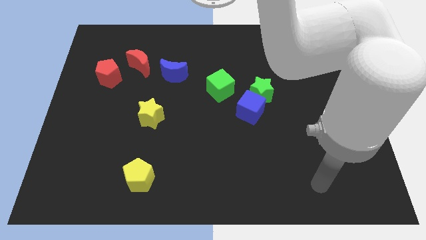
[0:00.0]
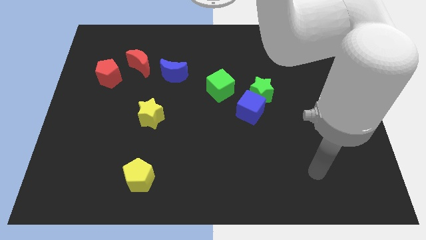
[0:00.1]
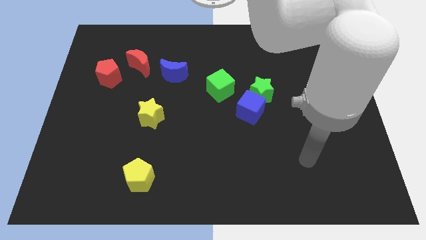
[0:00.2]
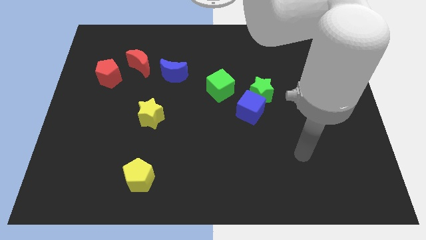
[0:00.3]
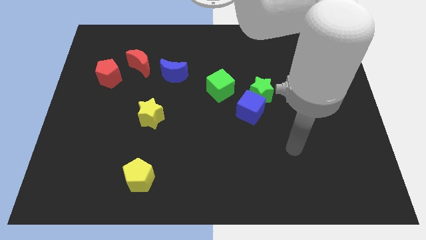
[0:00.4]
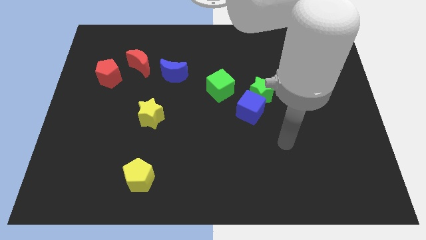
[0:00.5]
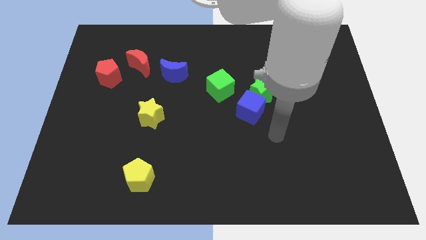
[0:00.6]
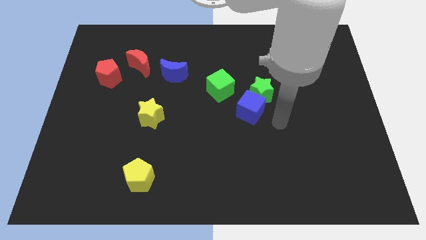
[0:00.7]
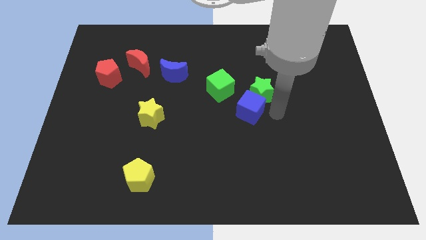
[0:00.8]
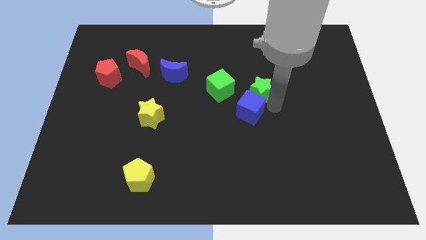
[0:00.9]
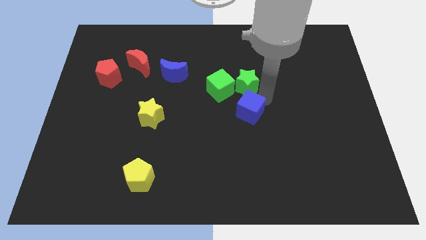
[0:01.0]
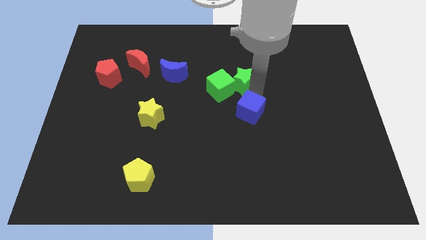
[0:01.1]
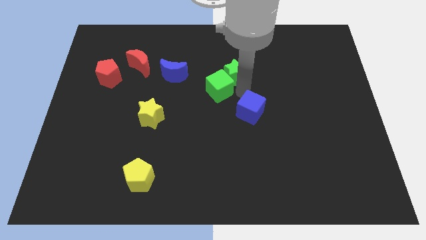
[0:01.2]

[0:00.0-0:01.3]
separate the blue cube from the green star and green cube

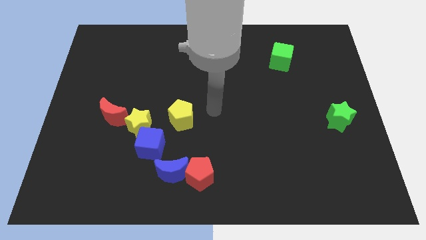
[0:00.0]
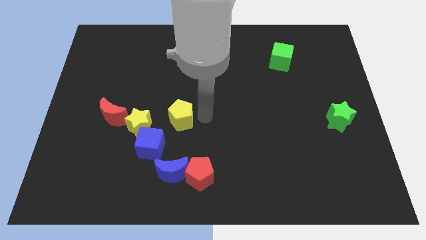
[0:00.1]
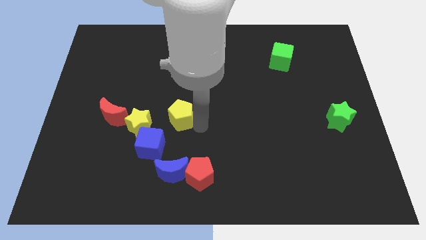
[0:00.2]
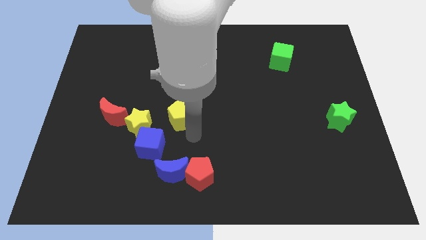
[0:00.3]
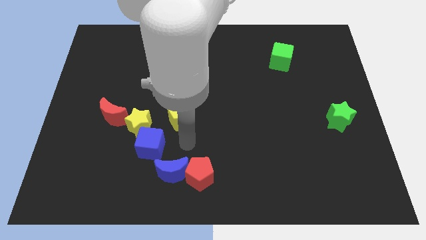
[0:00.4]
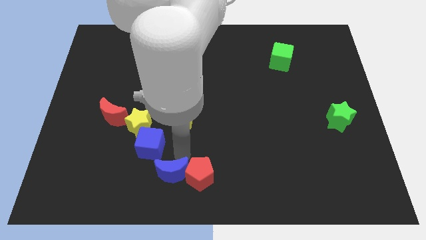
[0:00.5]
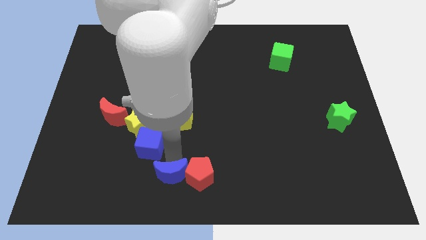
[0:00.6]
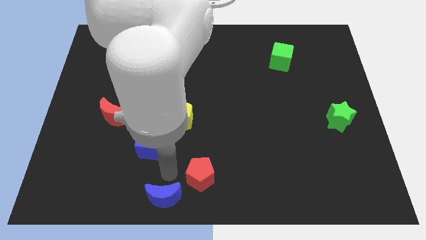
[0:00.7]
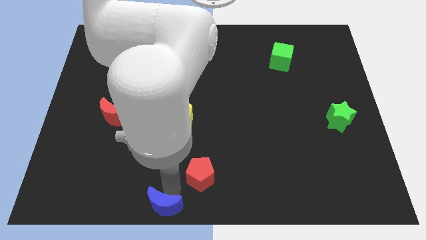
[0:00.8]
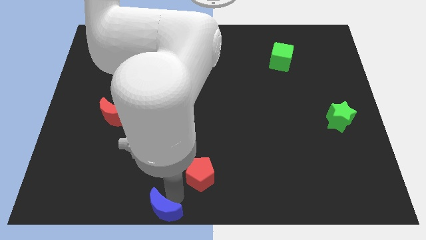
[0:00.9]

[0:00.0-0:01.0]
pull the red pentagon apart from the blue moon

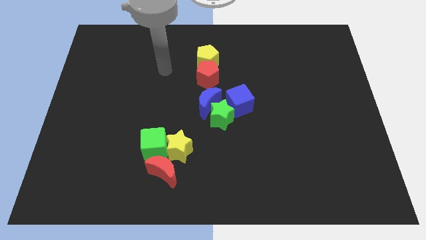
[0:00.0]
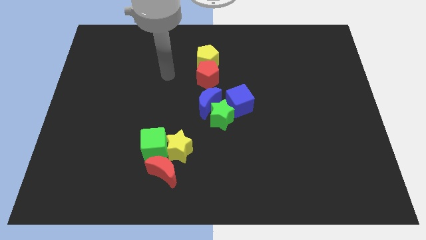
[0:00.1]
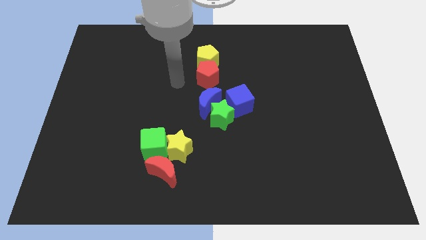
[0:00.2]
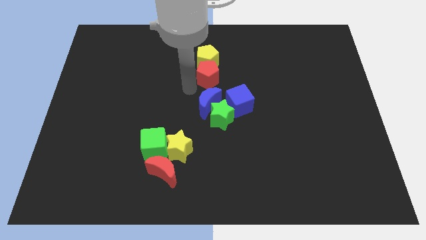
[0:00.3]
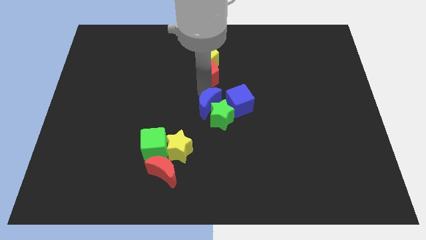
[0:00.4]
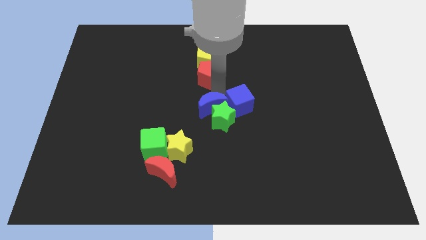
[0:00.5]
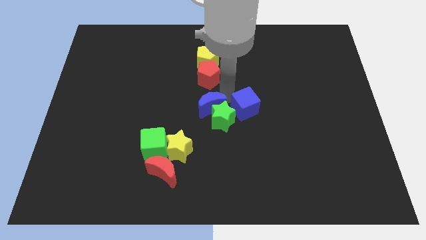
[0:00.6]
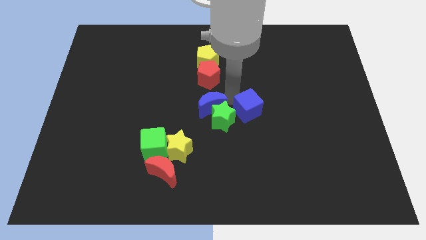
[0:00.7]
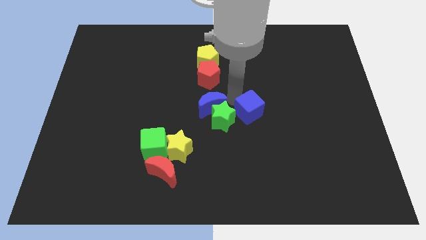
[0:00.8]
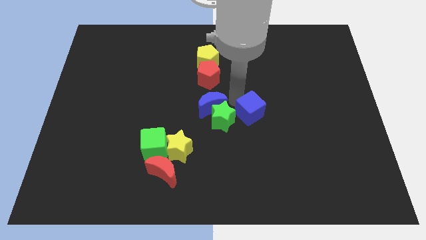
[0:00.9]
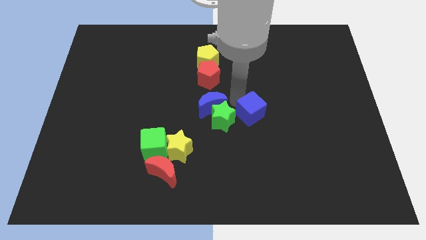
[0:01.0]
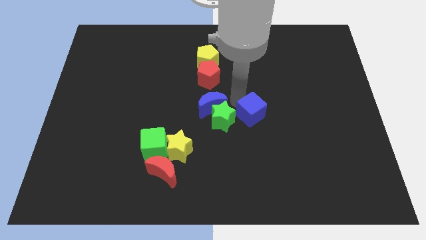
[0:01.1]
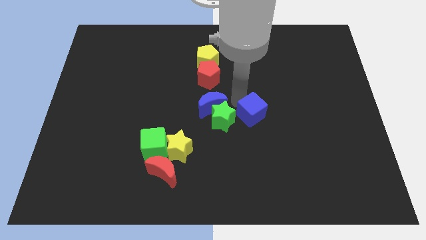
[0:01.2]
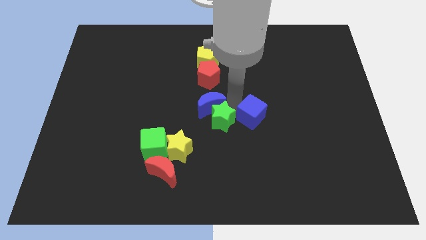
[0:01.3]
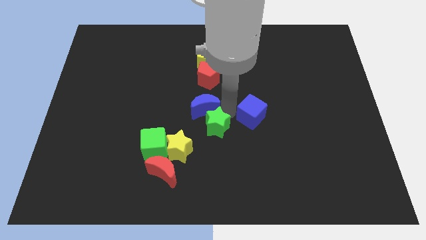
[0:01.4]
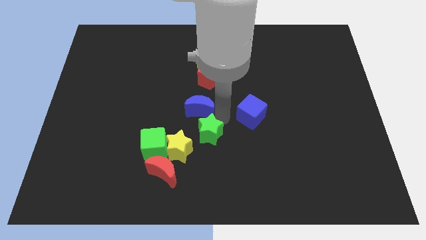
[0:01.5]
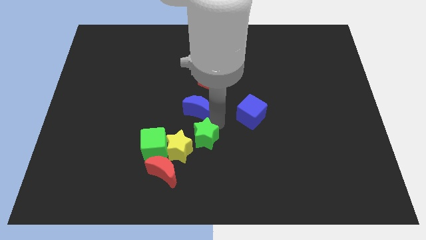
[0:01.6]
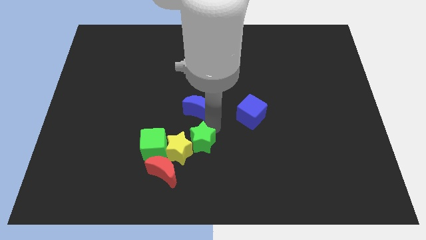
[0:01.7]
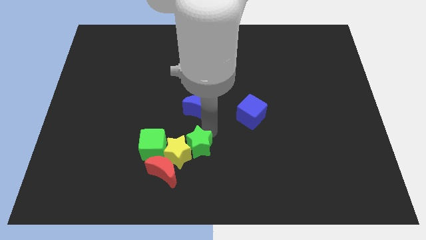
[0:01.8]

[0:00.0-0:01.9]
separate the green star from the blue moon and blue cube

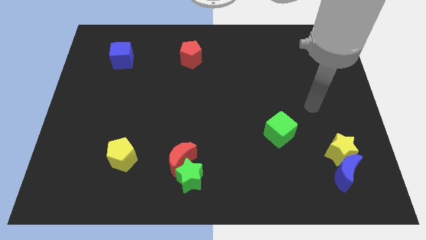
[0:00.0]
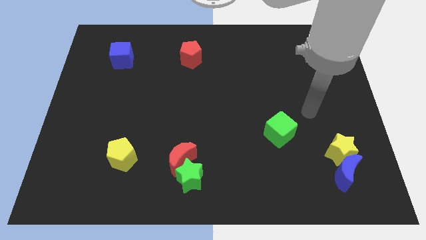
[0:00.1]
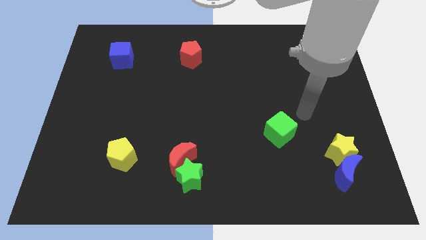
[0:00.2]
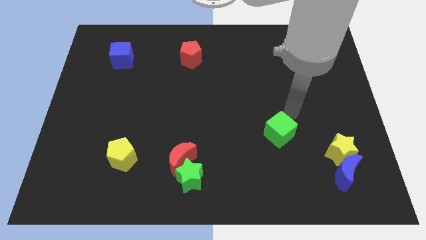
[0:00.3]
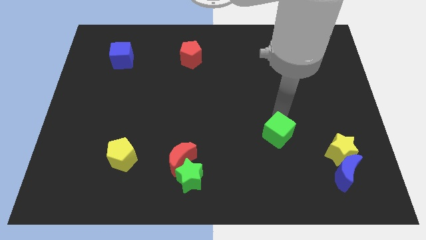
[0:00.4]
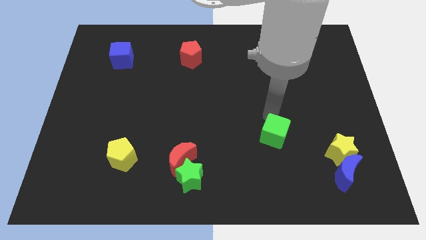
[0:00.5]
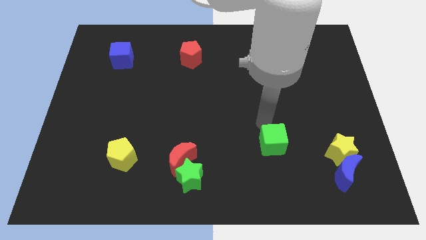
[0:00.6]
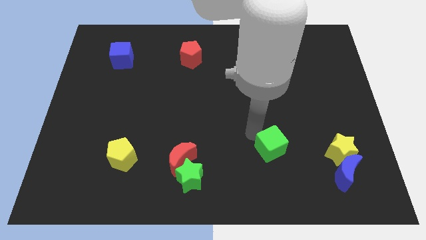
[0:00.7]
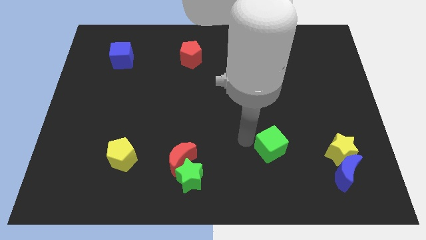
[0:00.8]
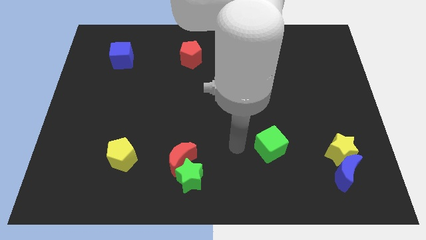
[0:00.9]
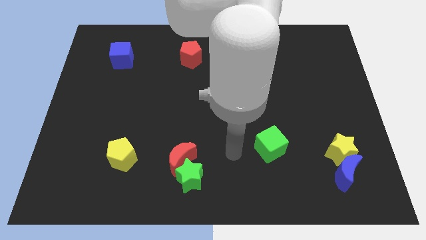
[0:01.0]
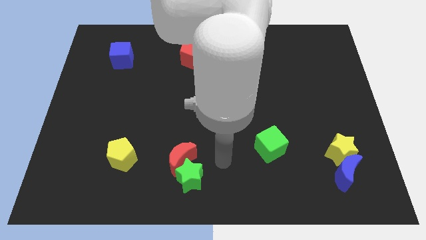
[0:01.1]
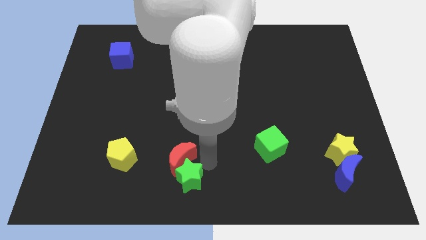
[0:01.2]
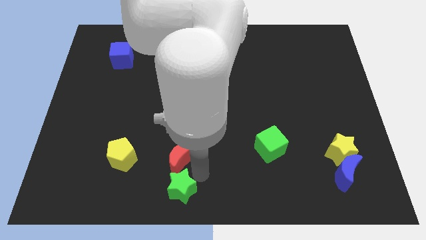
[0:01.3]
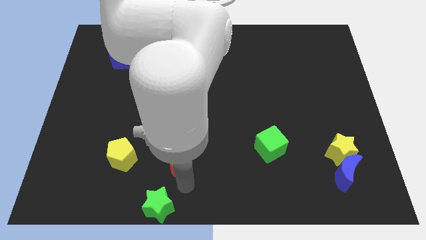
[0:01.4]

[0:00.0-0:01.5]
move the red moon away from the green star

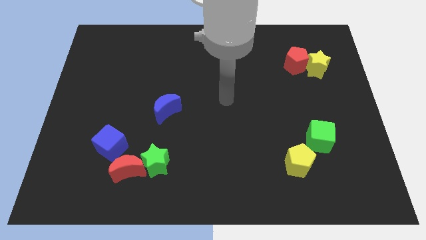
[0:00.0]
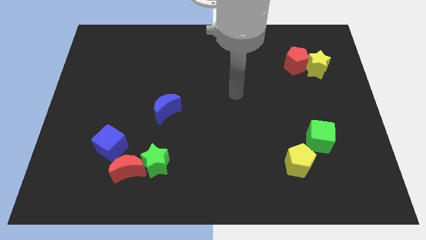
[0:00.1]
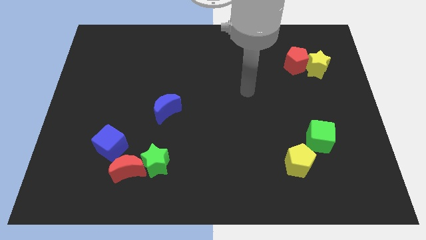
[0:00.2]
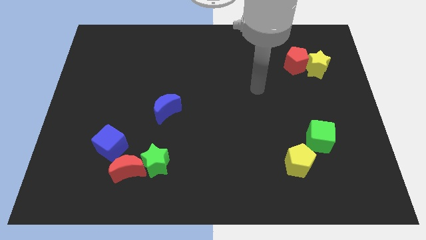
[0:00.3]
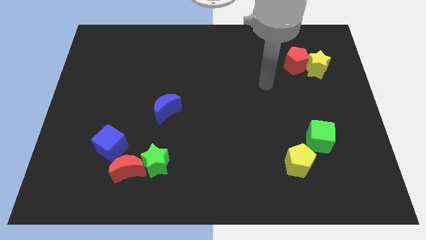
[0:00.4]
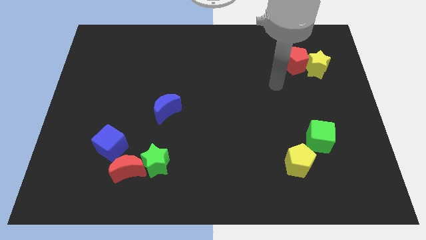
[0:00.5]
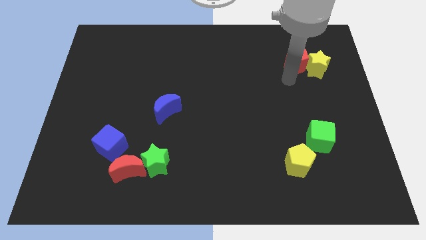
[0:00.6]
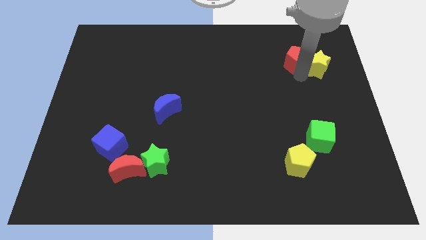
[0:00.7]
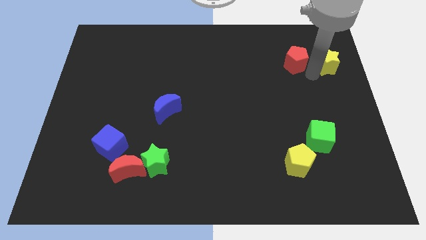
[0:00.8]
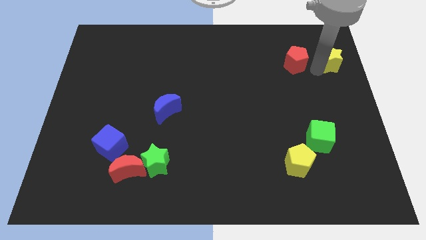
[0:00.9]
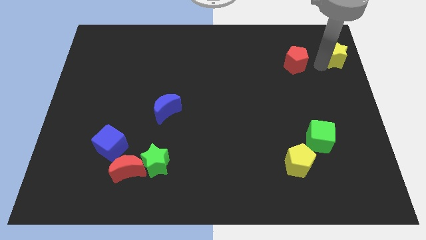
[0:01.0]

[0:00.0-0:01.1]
pull the red pentagon apart from the yellow star

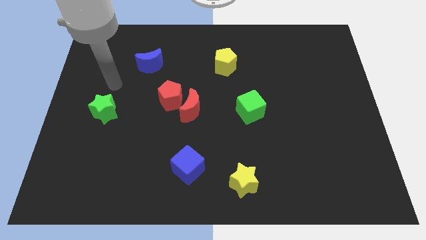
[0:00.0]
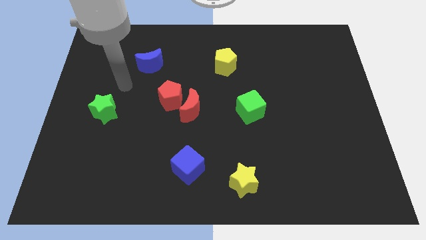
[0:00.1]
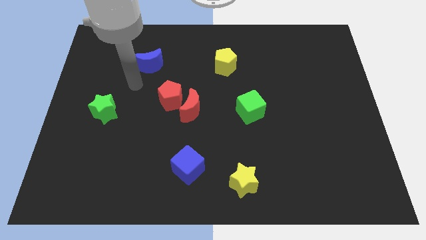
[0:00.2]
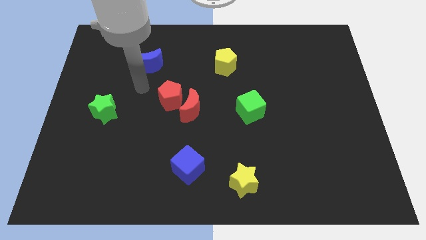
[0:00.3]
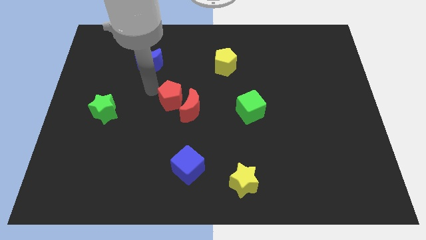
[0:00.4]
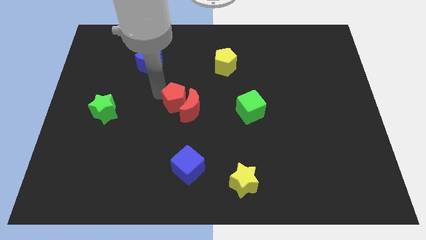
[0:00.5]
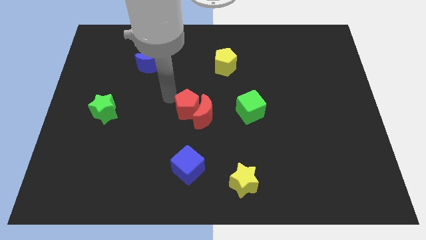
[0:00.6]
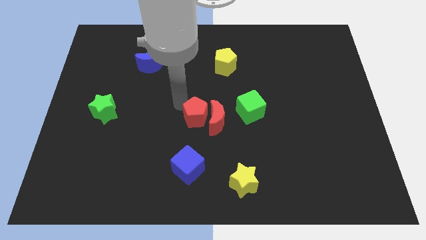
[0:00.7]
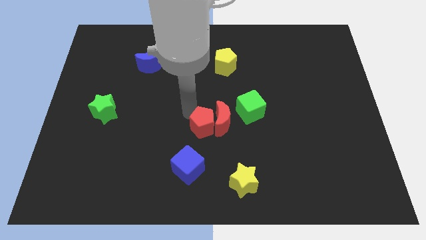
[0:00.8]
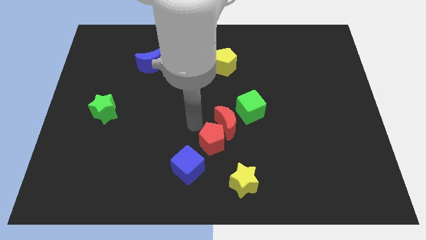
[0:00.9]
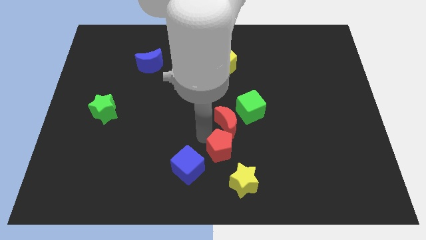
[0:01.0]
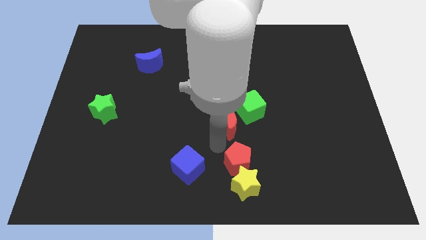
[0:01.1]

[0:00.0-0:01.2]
pull the red moon apart from the red pentagon

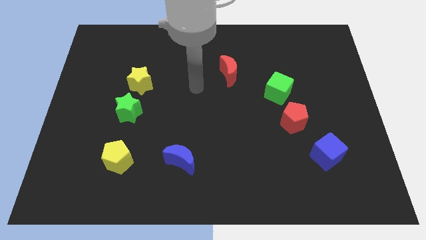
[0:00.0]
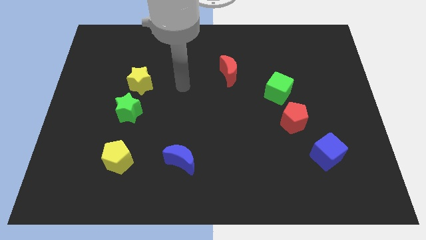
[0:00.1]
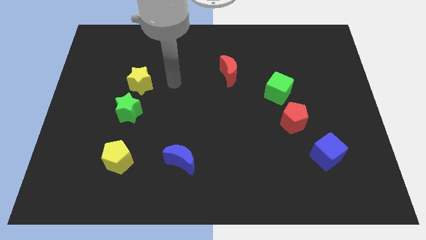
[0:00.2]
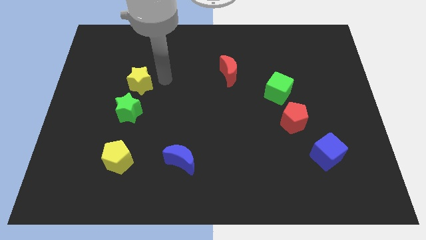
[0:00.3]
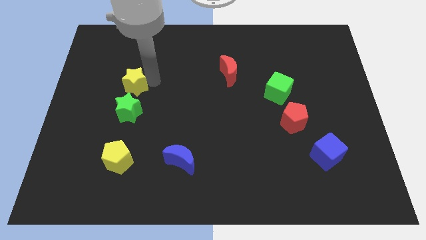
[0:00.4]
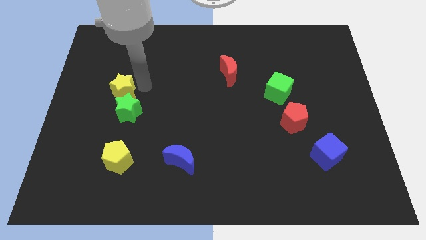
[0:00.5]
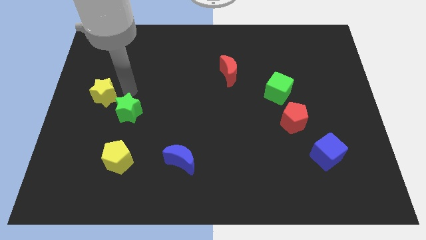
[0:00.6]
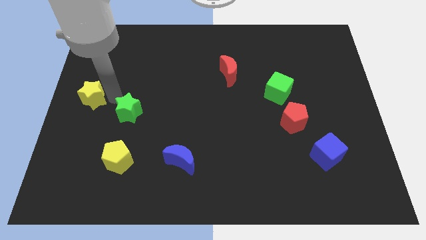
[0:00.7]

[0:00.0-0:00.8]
pull the green star apart from the yellow star

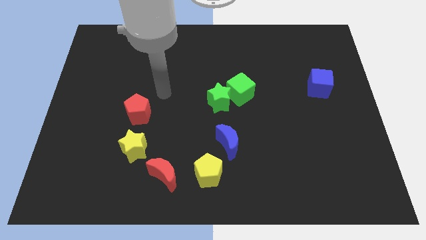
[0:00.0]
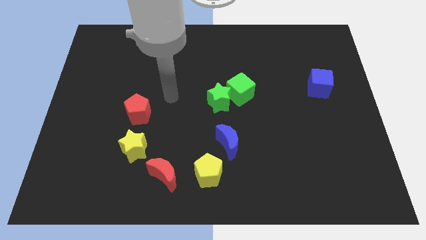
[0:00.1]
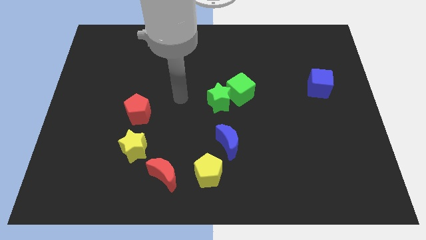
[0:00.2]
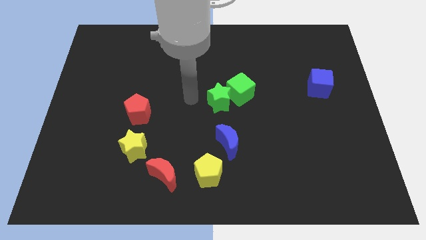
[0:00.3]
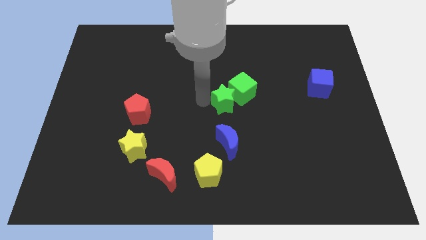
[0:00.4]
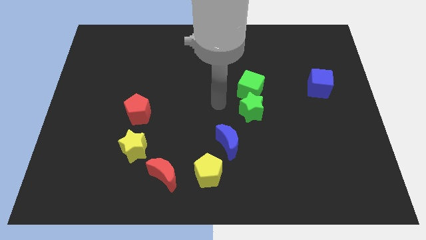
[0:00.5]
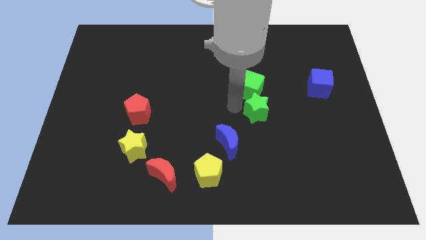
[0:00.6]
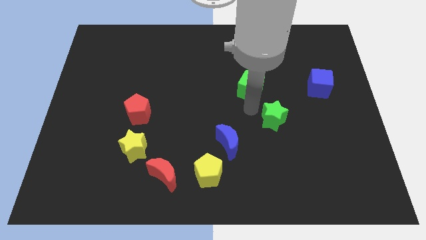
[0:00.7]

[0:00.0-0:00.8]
separate the green cube from the green star
